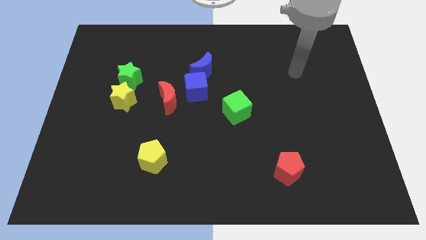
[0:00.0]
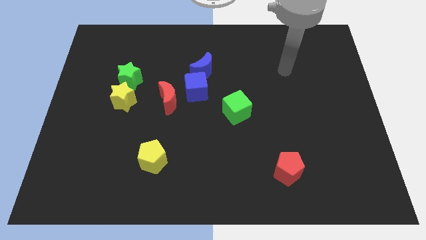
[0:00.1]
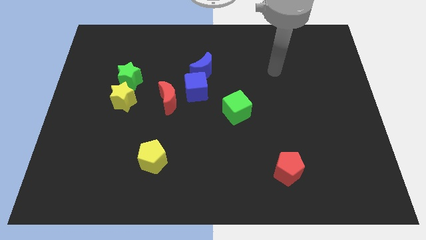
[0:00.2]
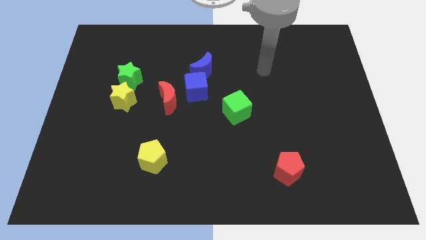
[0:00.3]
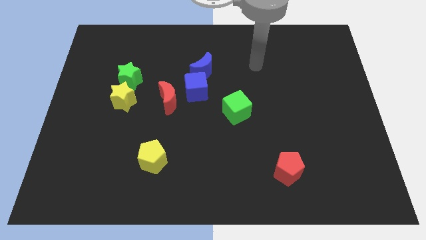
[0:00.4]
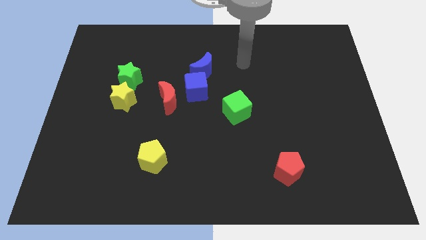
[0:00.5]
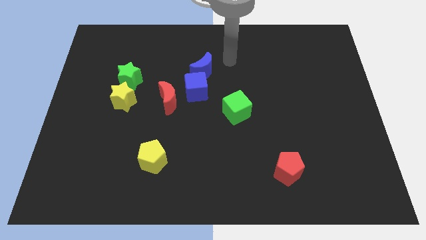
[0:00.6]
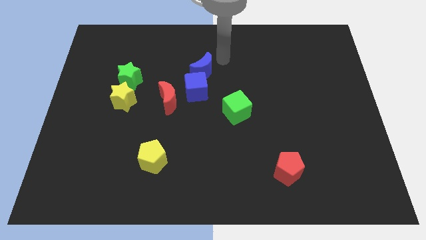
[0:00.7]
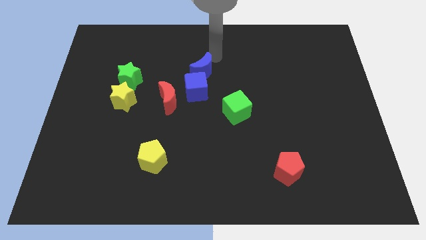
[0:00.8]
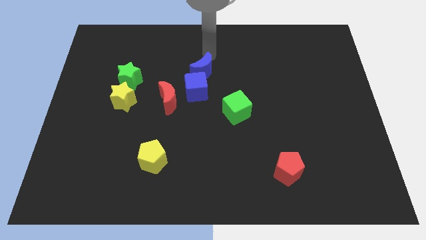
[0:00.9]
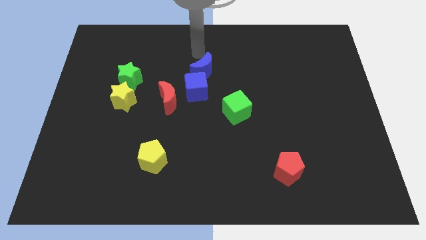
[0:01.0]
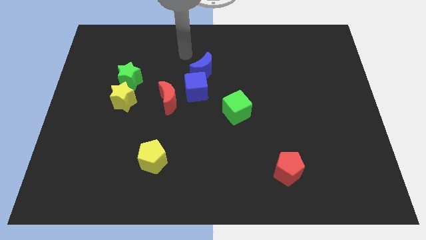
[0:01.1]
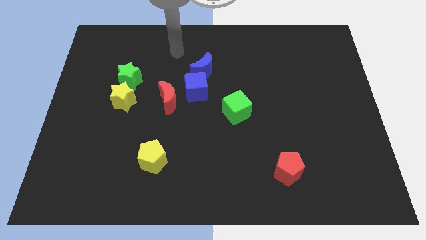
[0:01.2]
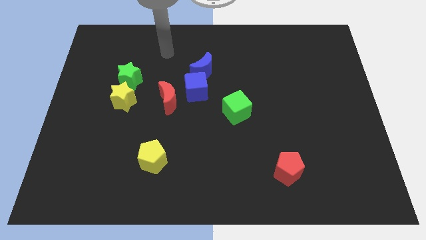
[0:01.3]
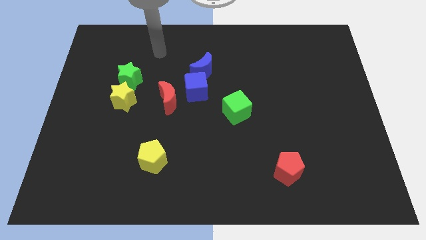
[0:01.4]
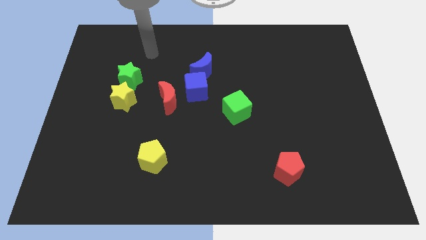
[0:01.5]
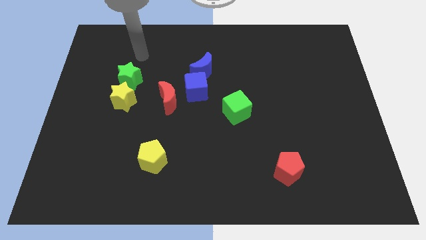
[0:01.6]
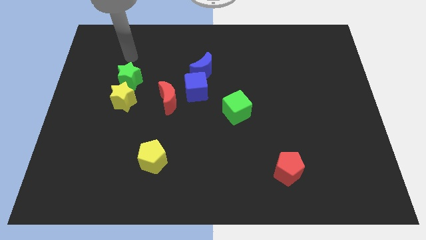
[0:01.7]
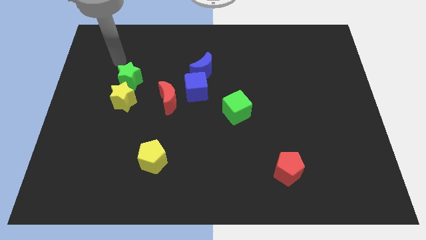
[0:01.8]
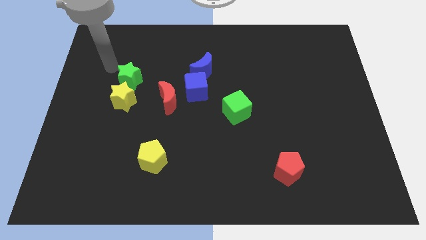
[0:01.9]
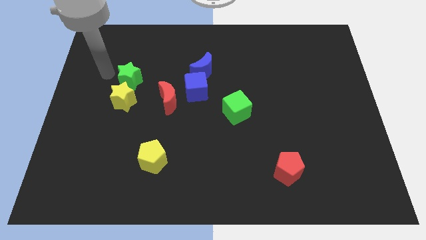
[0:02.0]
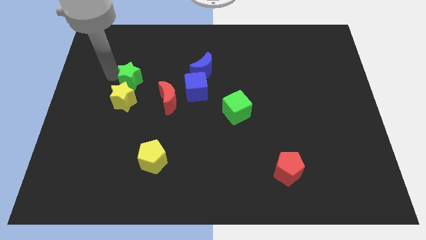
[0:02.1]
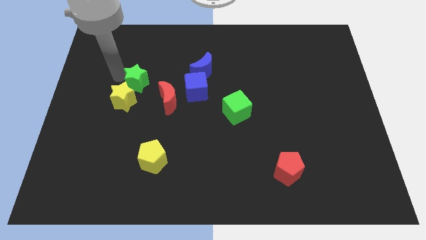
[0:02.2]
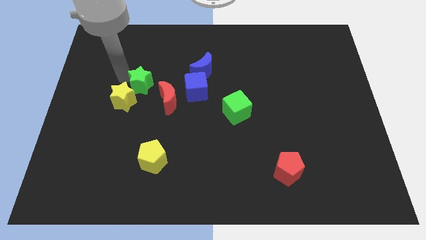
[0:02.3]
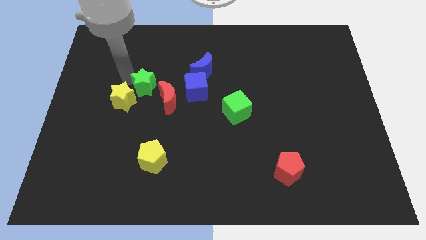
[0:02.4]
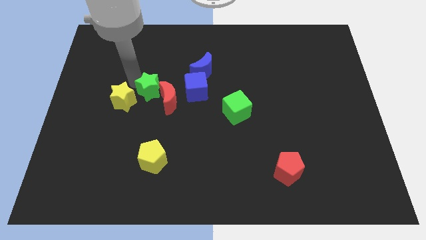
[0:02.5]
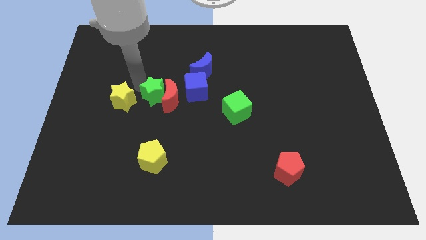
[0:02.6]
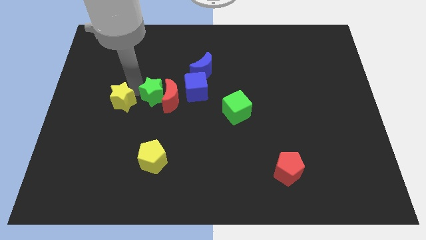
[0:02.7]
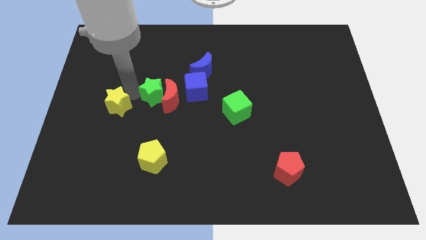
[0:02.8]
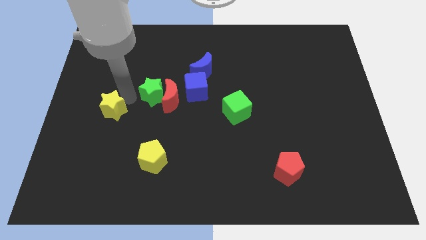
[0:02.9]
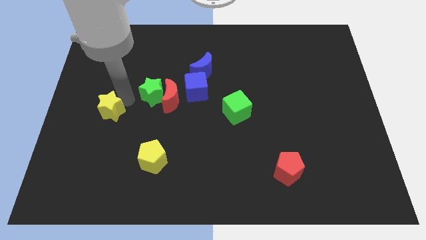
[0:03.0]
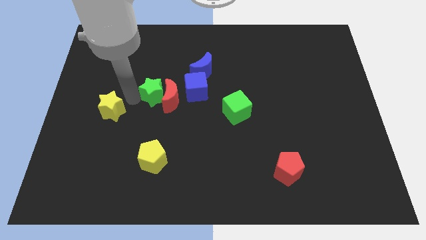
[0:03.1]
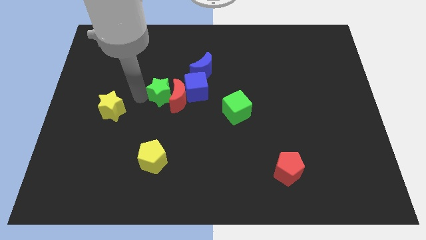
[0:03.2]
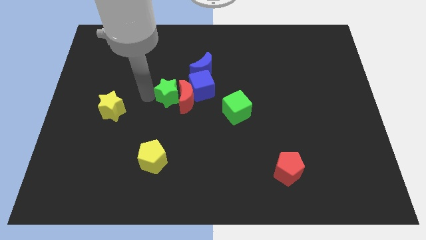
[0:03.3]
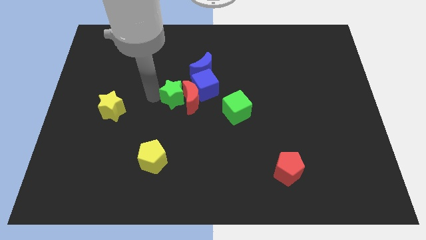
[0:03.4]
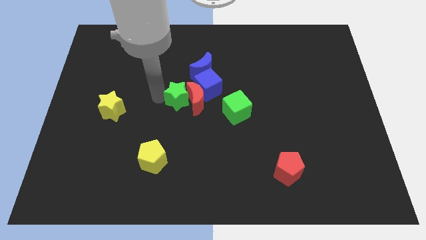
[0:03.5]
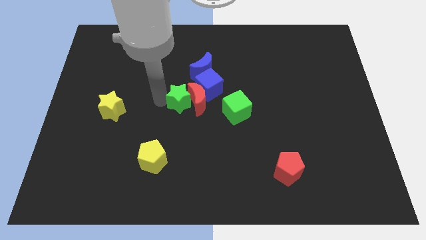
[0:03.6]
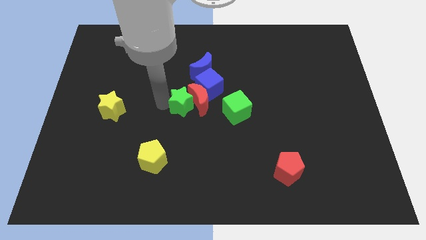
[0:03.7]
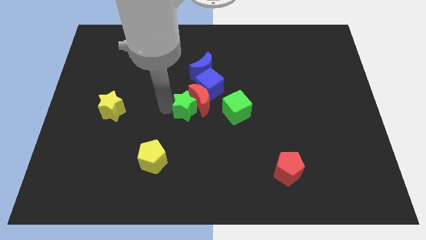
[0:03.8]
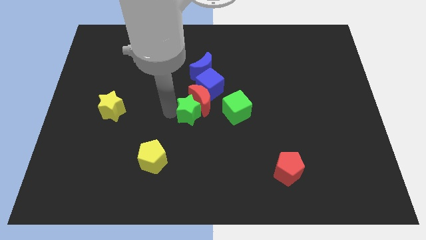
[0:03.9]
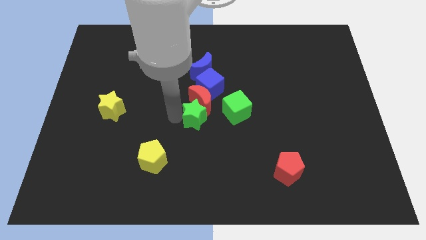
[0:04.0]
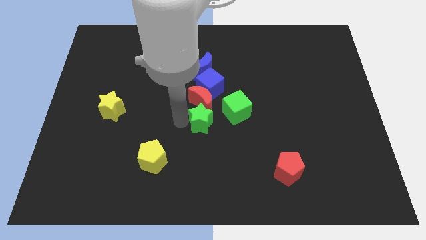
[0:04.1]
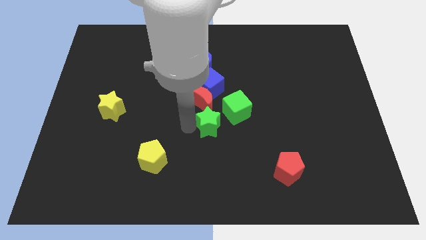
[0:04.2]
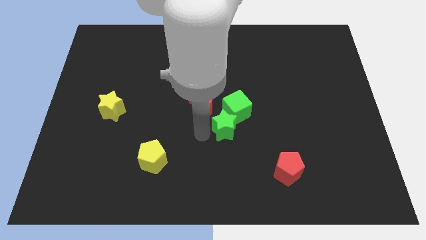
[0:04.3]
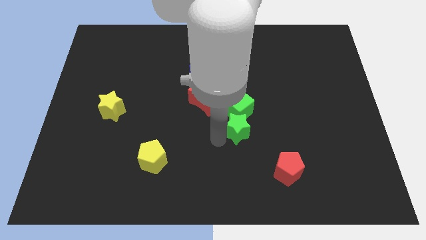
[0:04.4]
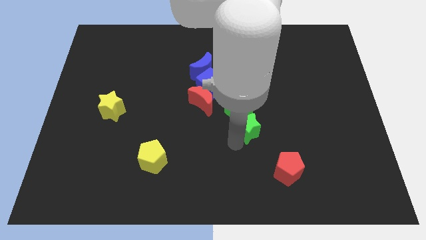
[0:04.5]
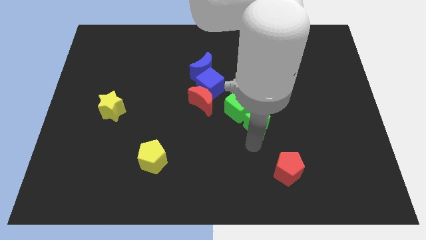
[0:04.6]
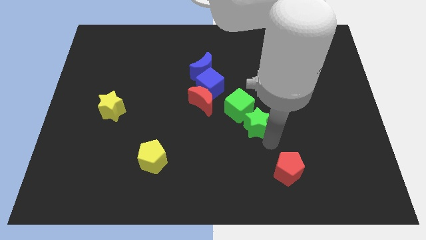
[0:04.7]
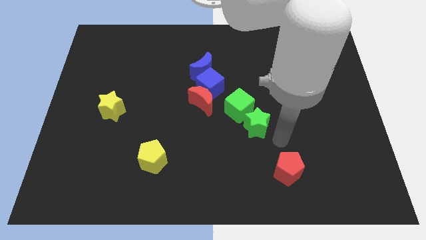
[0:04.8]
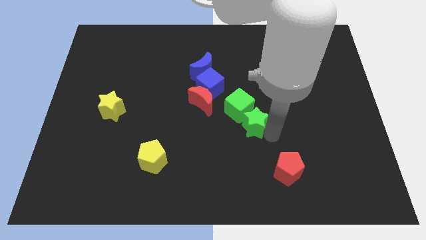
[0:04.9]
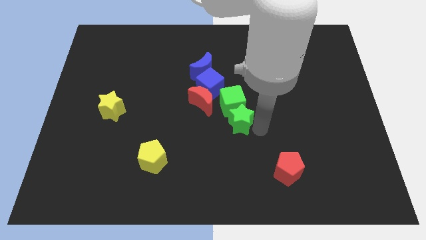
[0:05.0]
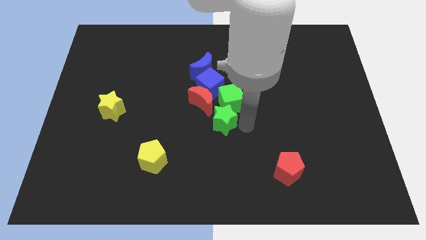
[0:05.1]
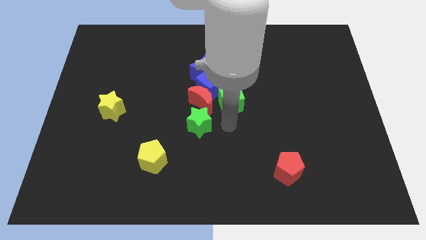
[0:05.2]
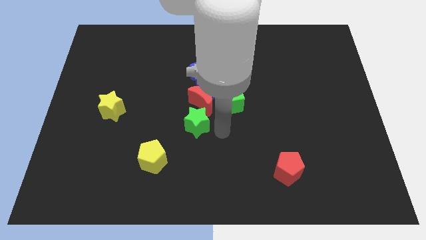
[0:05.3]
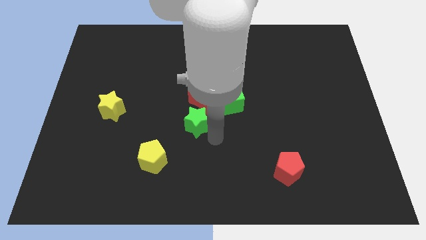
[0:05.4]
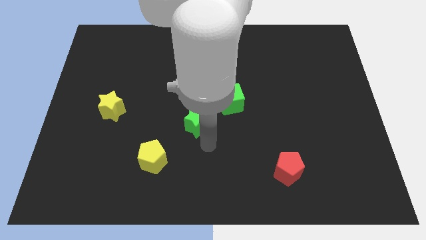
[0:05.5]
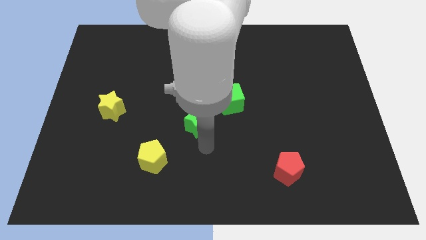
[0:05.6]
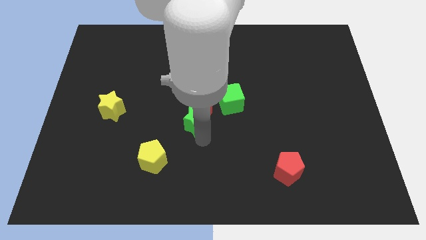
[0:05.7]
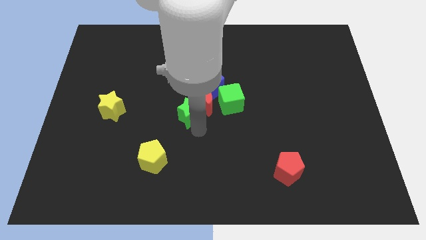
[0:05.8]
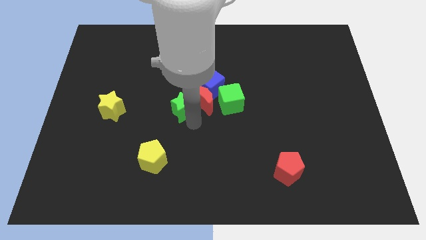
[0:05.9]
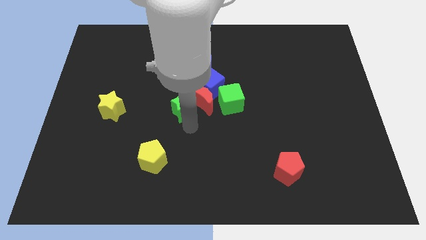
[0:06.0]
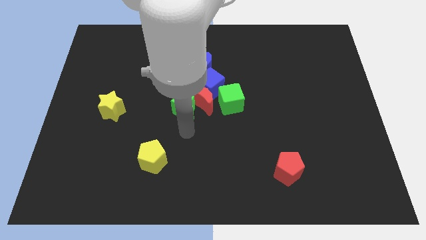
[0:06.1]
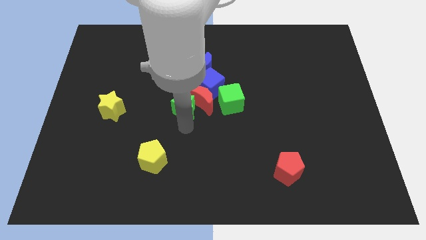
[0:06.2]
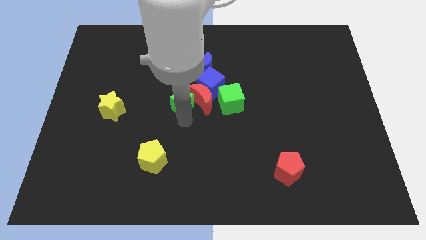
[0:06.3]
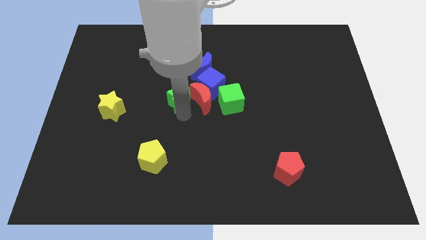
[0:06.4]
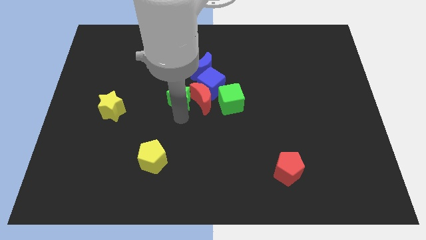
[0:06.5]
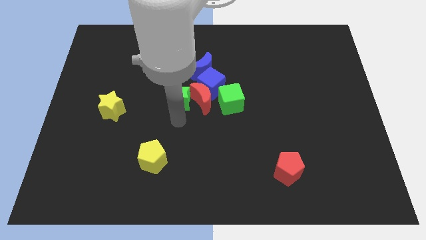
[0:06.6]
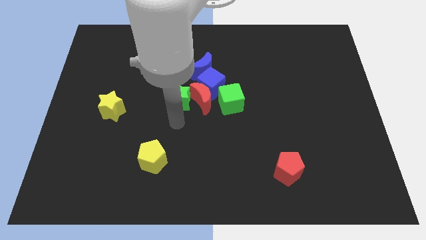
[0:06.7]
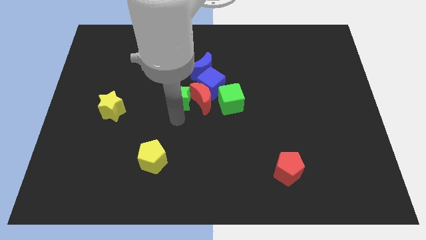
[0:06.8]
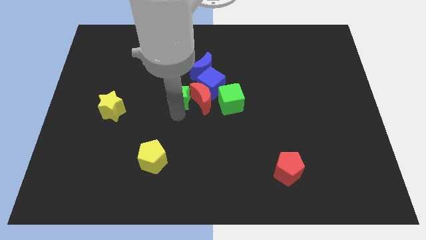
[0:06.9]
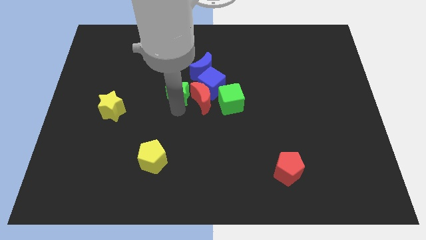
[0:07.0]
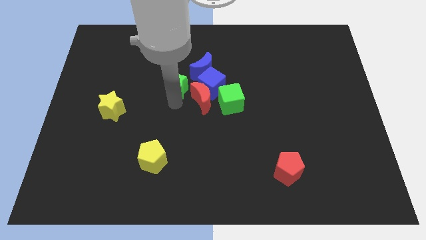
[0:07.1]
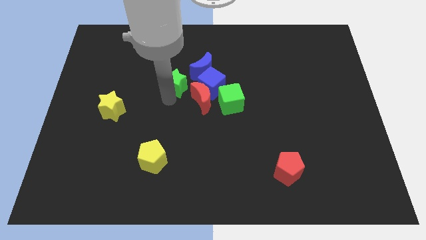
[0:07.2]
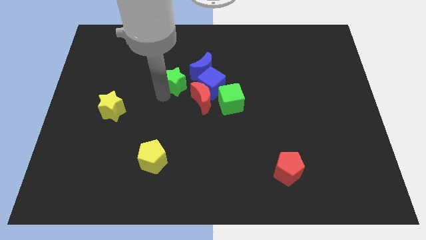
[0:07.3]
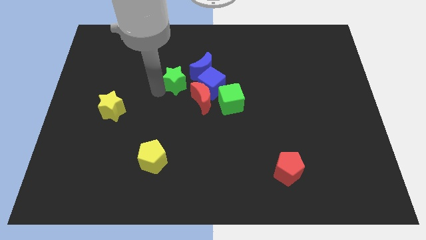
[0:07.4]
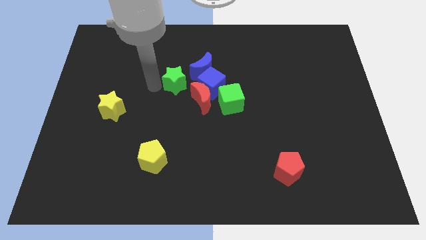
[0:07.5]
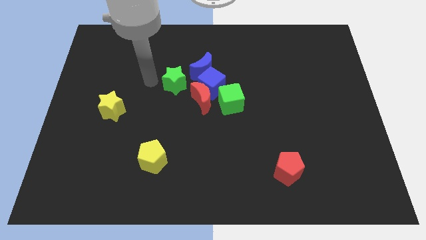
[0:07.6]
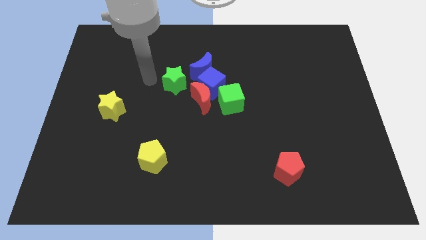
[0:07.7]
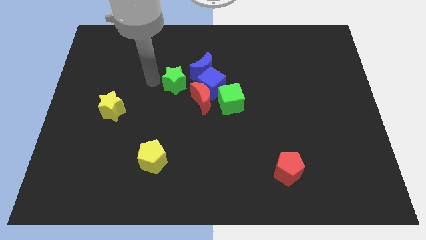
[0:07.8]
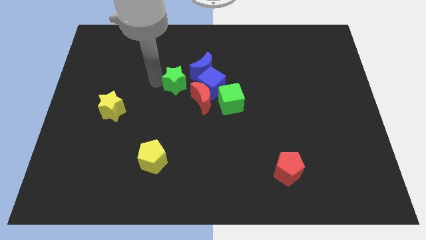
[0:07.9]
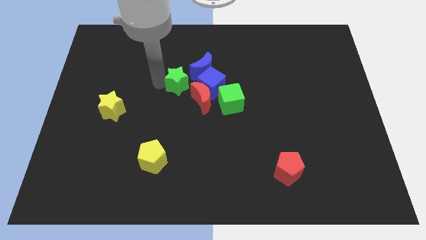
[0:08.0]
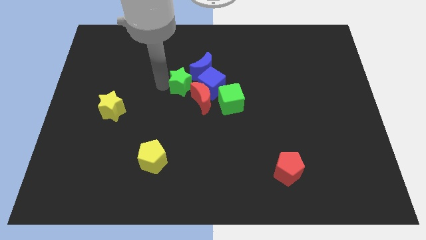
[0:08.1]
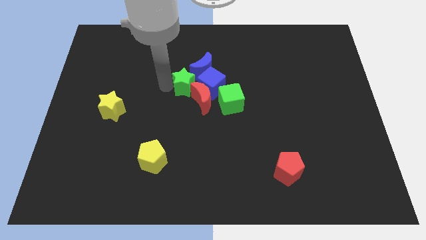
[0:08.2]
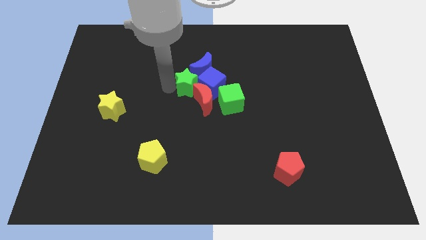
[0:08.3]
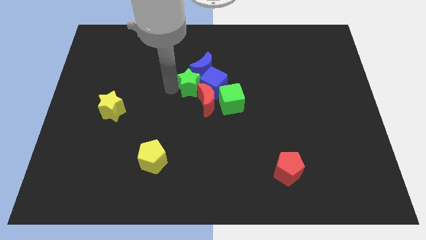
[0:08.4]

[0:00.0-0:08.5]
slide the green star close to the blue cube
